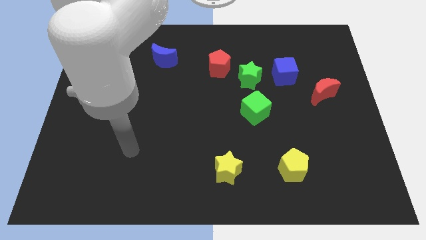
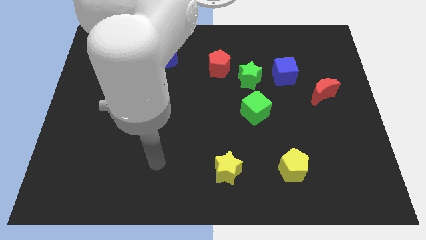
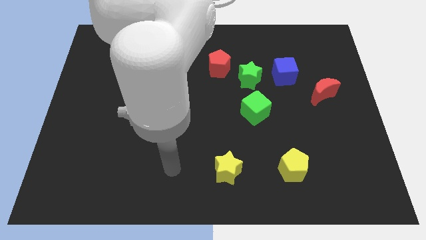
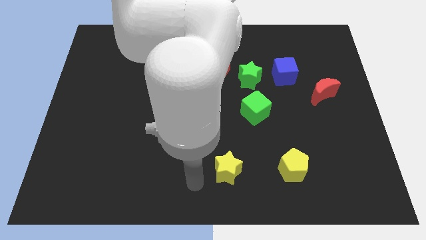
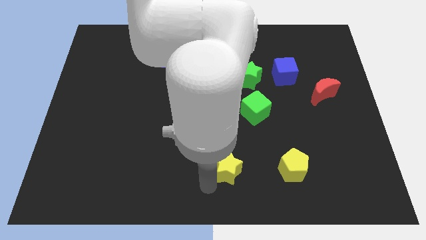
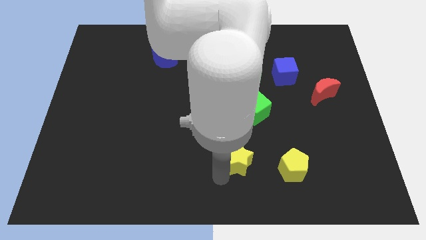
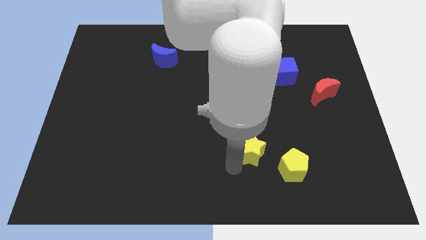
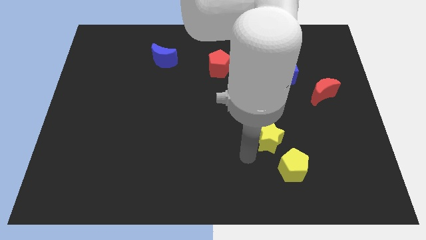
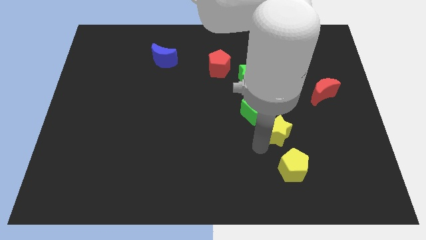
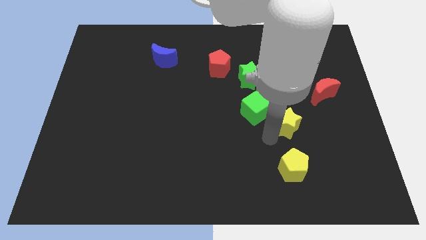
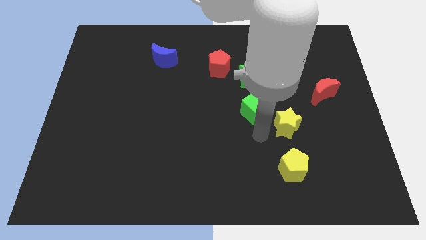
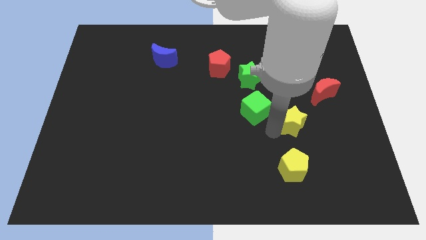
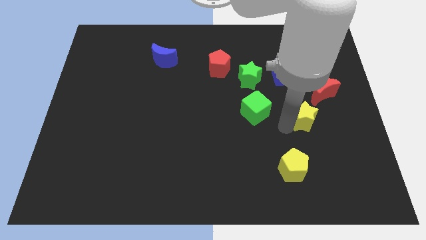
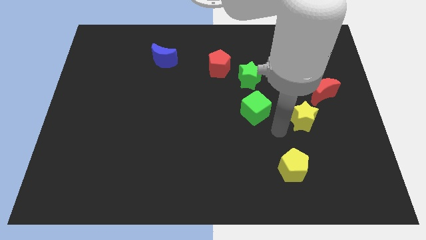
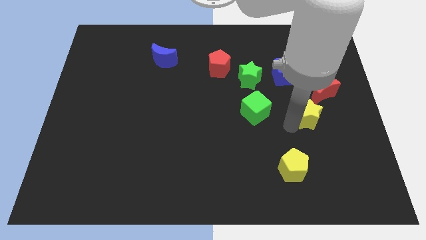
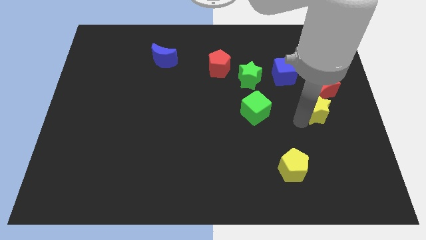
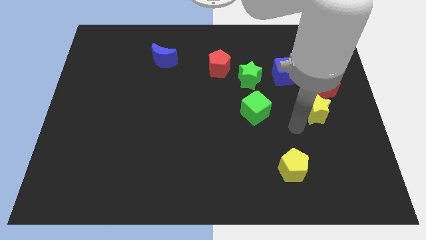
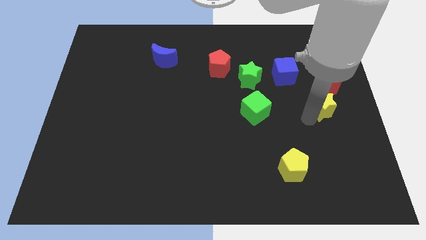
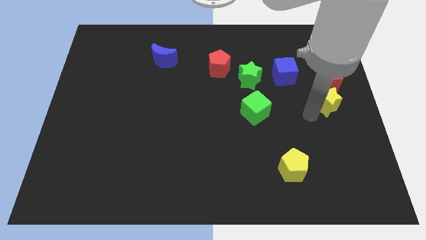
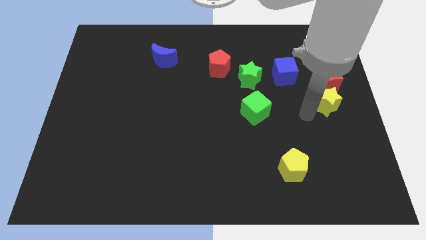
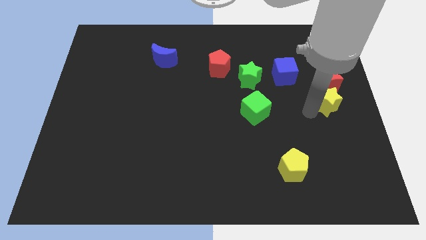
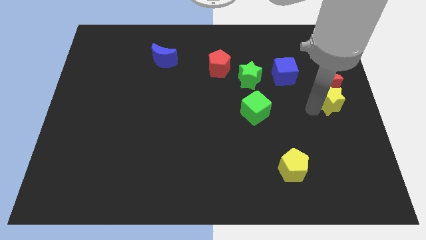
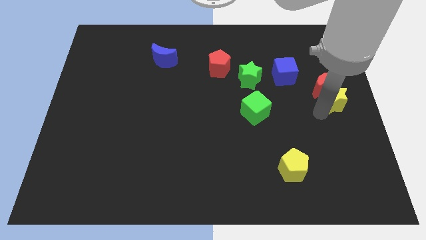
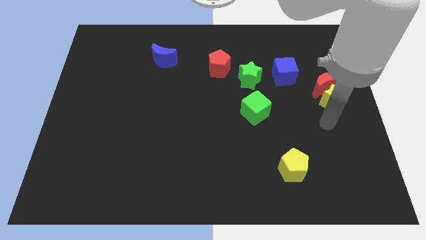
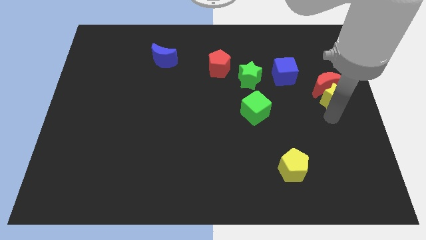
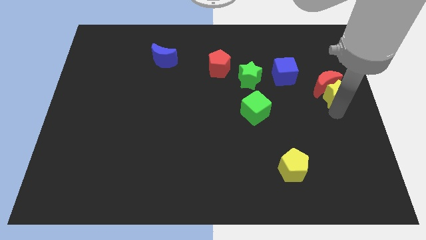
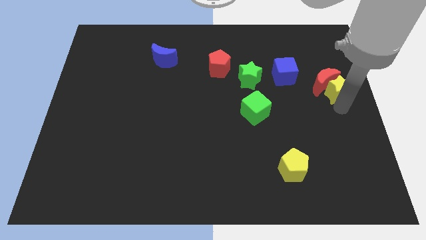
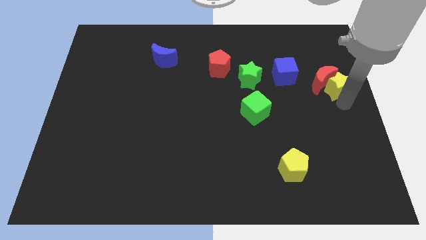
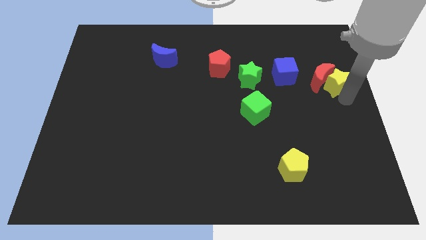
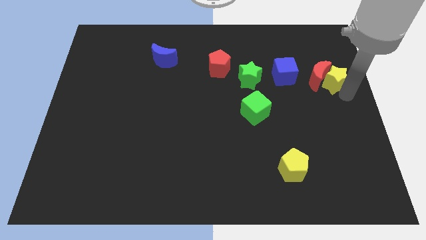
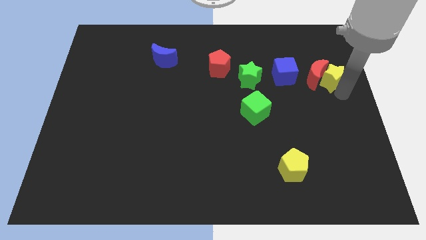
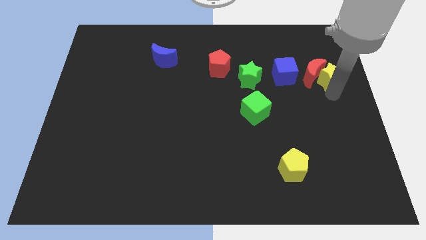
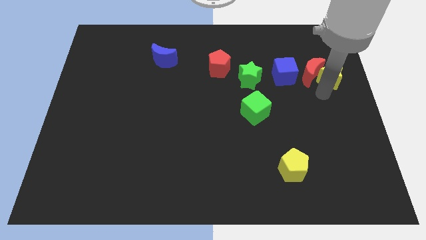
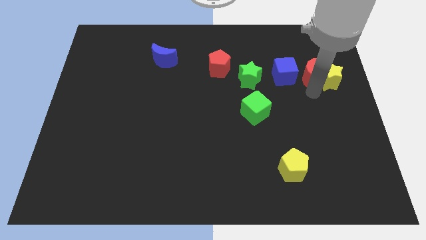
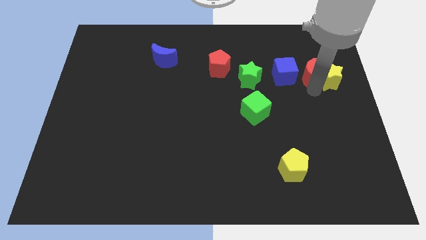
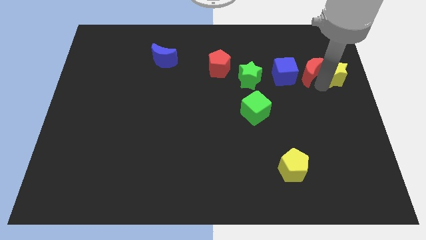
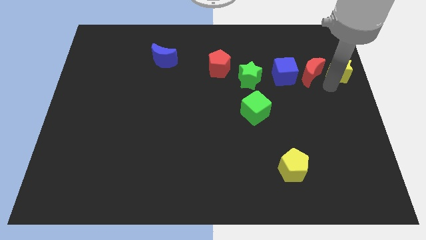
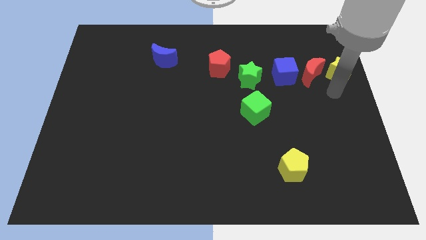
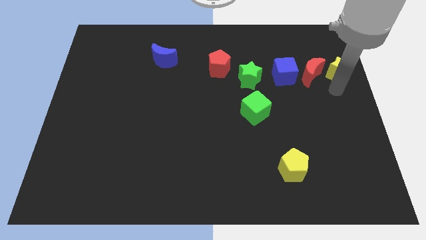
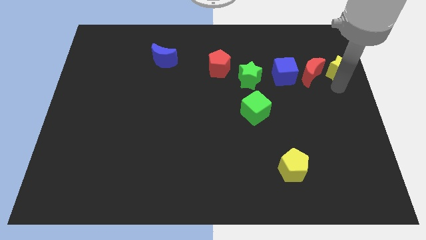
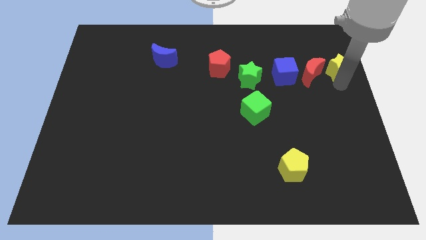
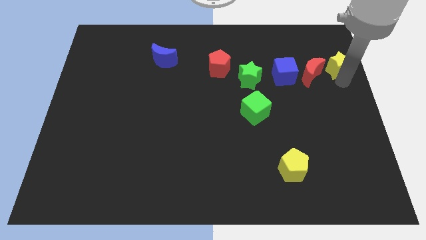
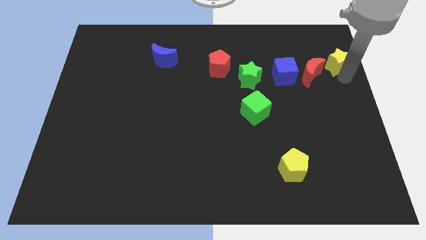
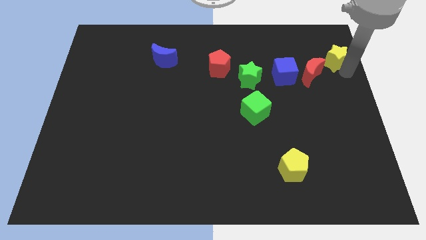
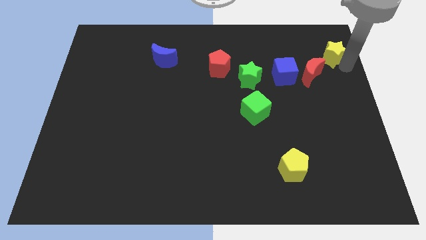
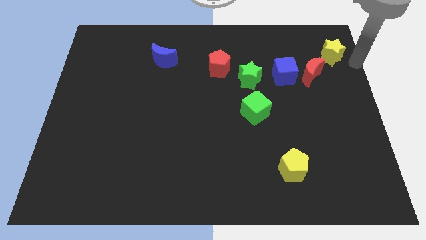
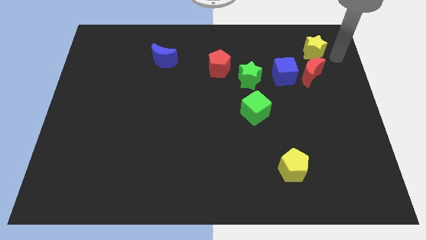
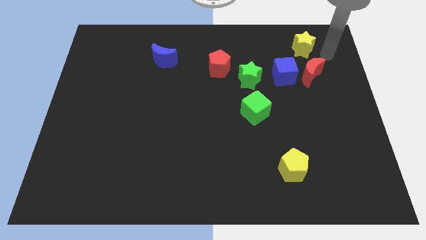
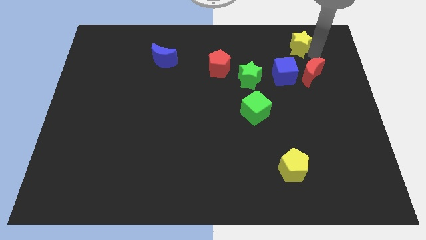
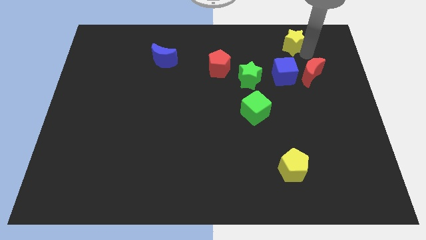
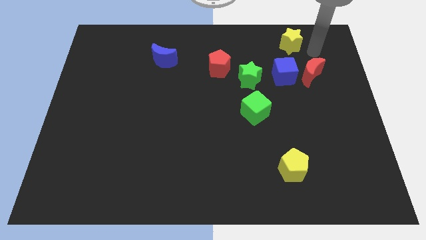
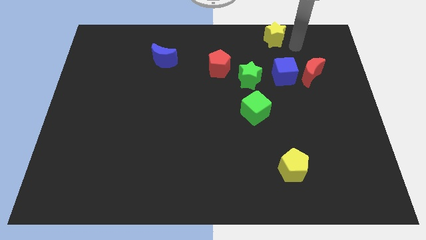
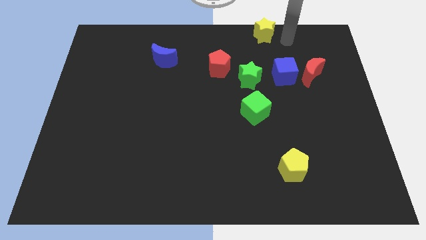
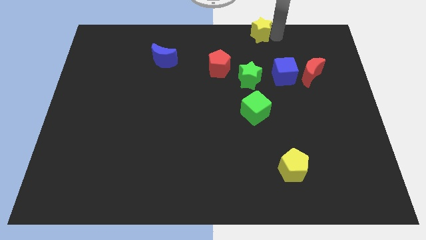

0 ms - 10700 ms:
push the yellow star to the top
